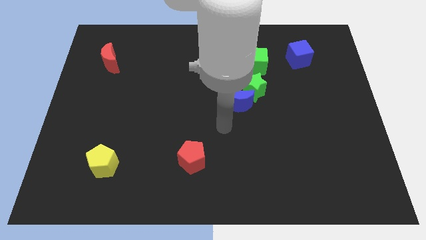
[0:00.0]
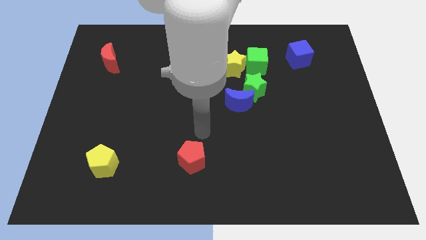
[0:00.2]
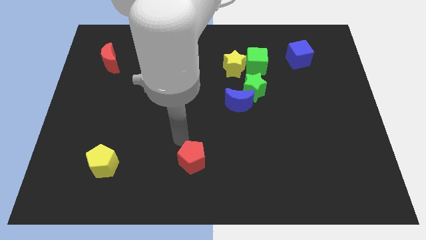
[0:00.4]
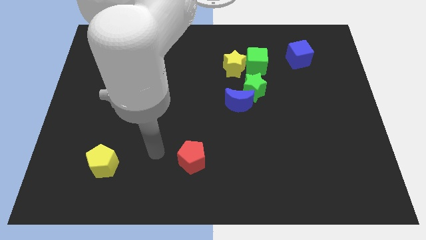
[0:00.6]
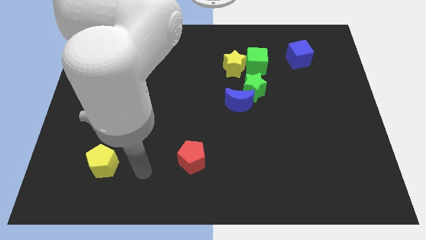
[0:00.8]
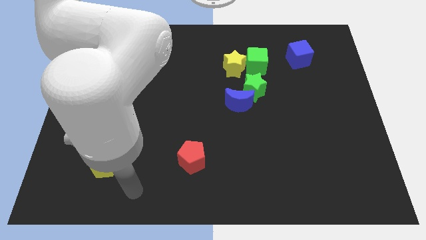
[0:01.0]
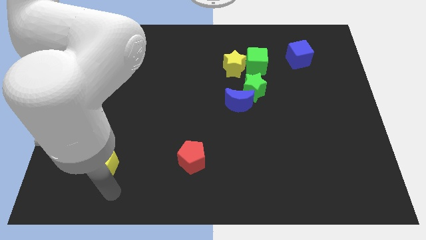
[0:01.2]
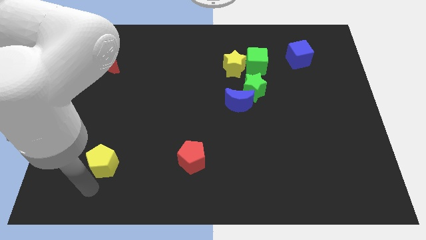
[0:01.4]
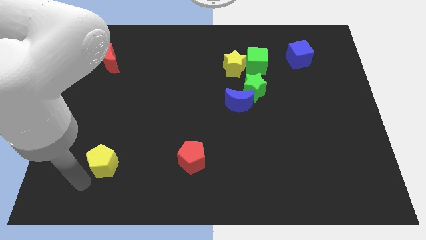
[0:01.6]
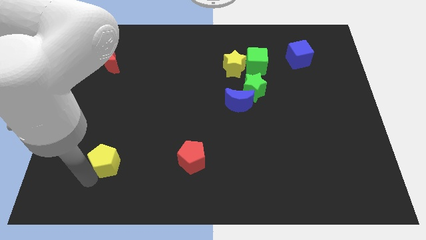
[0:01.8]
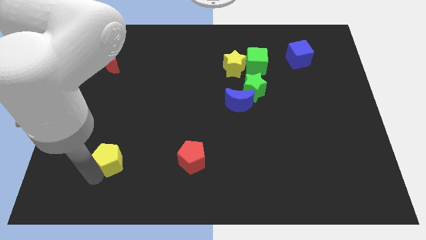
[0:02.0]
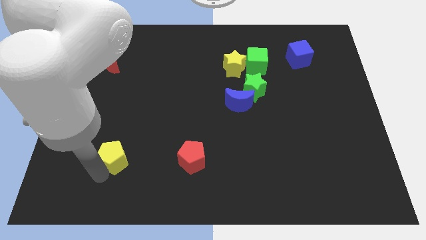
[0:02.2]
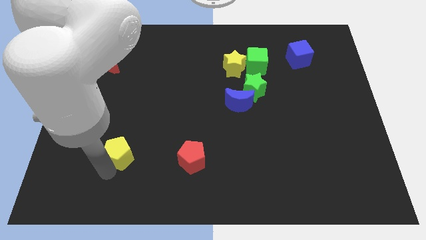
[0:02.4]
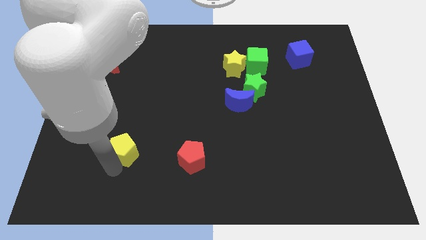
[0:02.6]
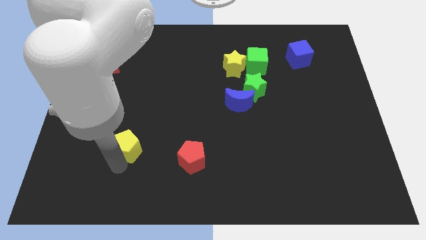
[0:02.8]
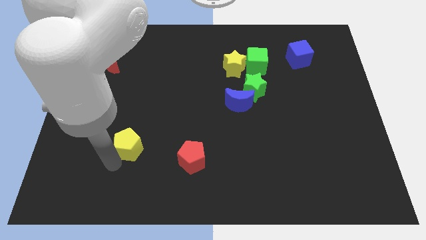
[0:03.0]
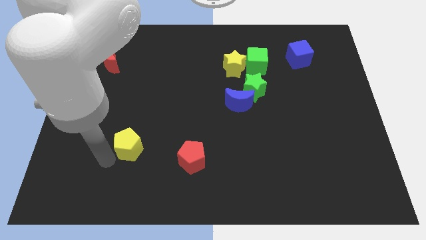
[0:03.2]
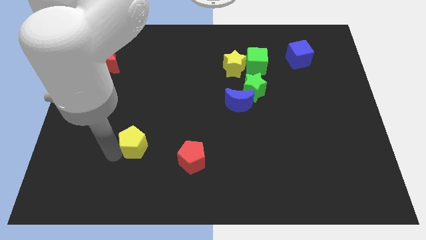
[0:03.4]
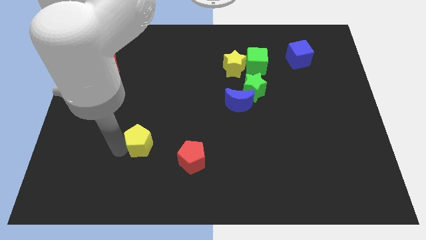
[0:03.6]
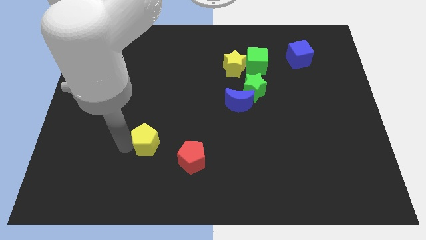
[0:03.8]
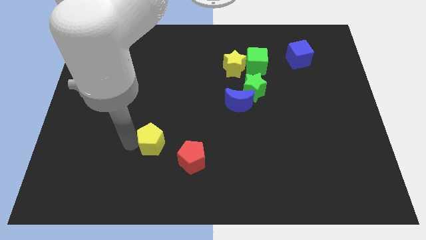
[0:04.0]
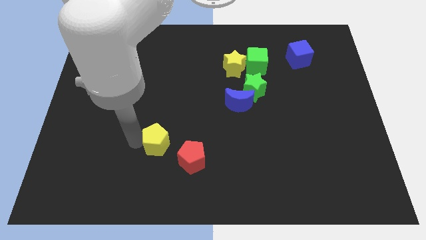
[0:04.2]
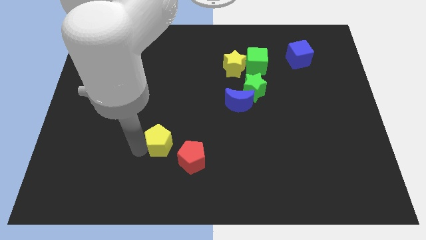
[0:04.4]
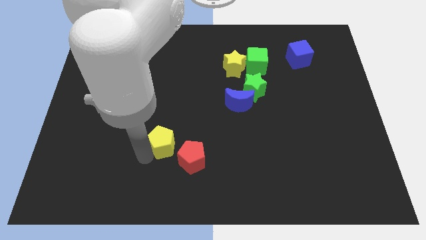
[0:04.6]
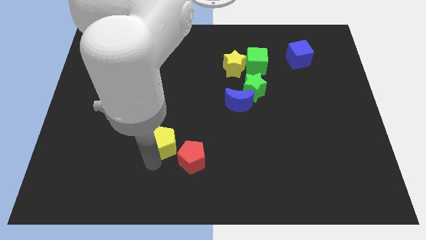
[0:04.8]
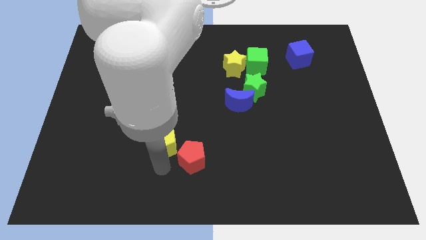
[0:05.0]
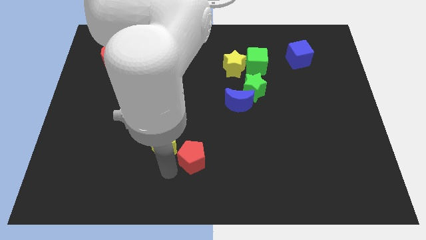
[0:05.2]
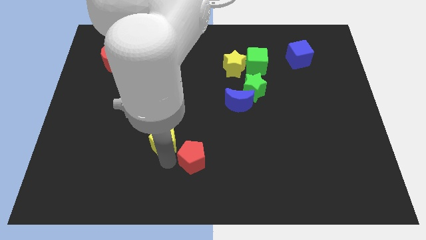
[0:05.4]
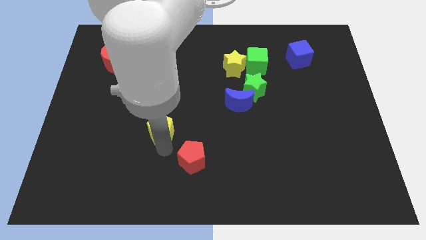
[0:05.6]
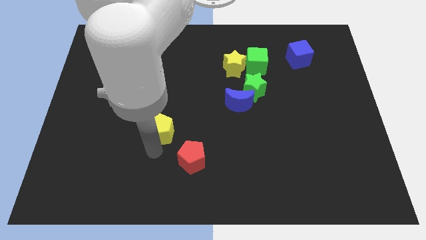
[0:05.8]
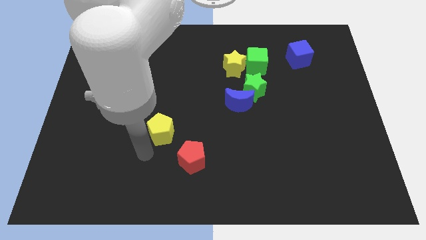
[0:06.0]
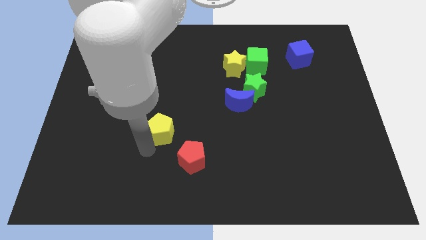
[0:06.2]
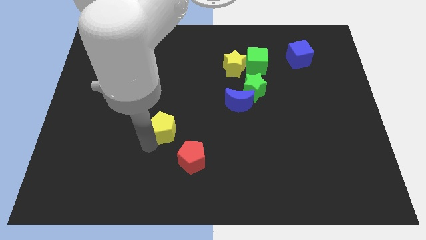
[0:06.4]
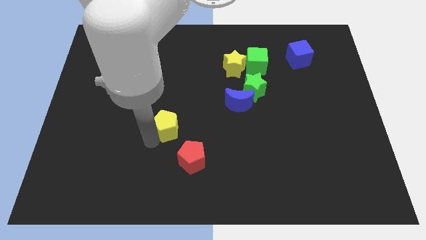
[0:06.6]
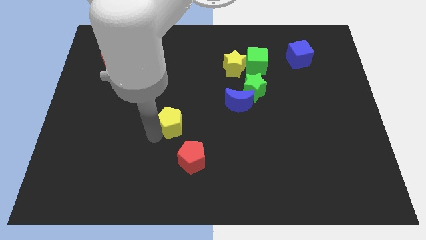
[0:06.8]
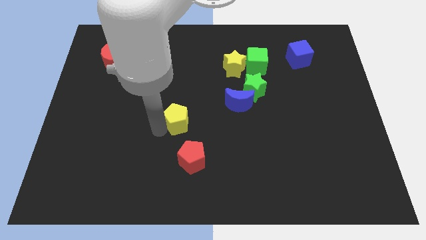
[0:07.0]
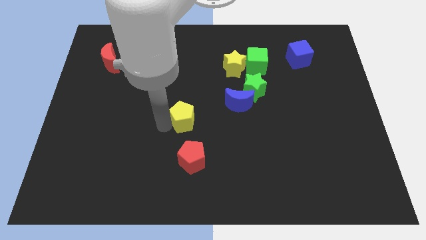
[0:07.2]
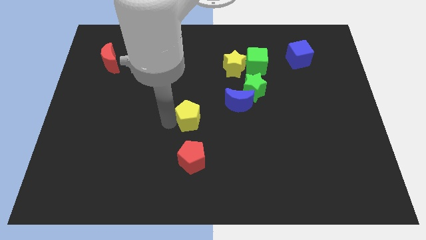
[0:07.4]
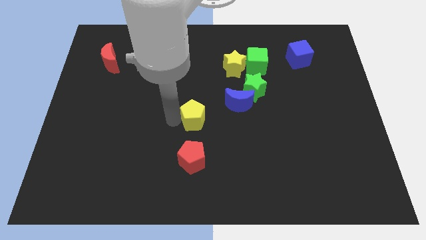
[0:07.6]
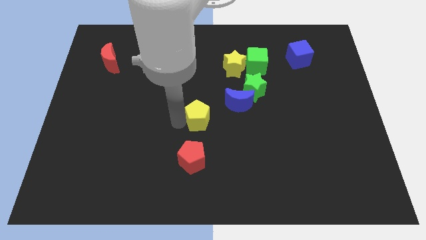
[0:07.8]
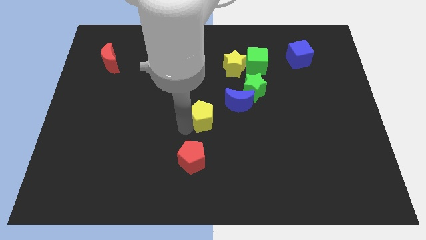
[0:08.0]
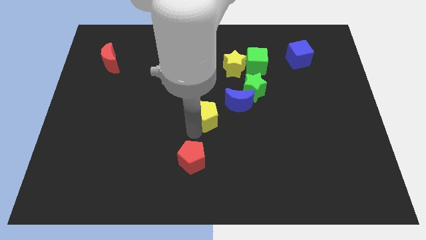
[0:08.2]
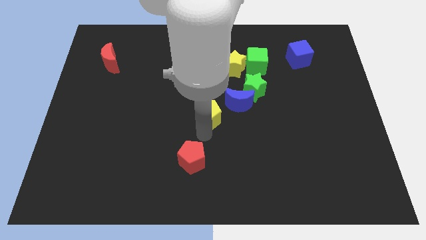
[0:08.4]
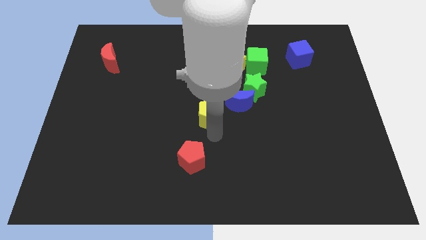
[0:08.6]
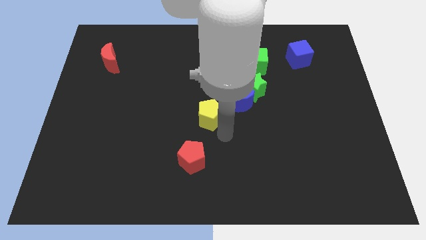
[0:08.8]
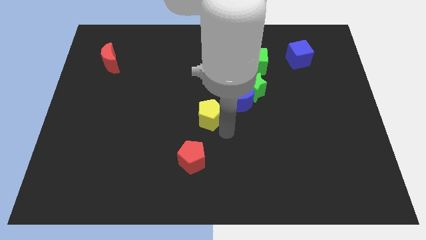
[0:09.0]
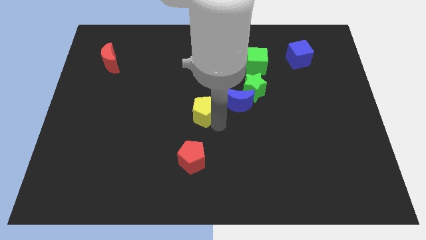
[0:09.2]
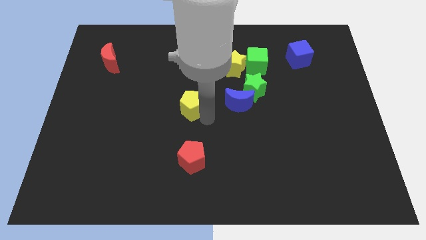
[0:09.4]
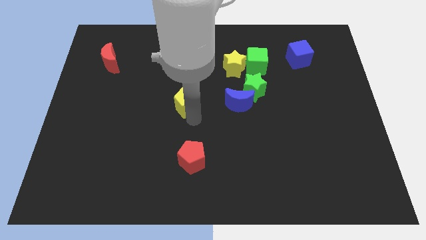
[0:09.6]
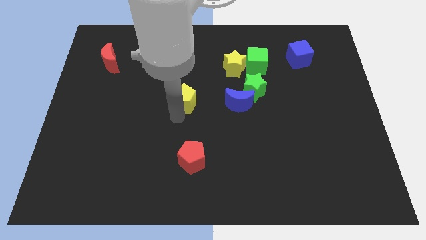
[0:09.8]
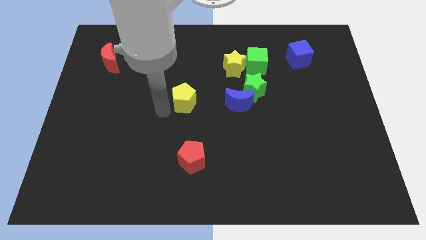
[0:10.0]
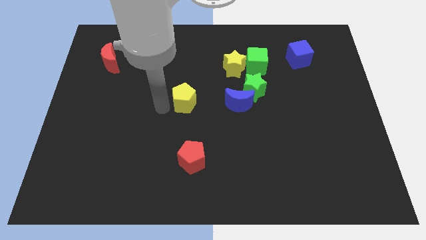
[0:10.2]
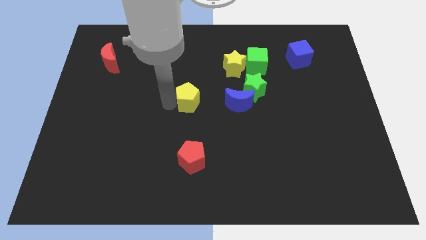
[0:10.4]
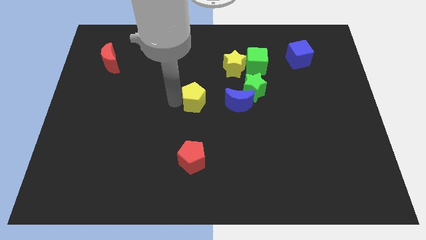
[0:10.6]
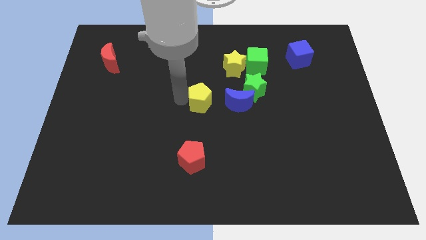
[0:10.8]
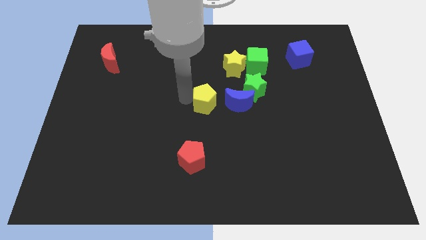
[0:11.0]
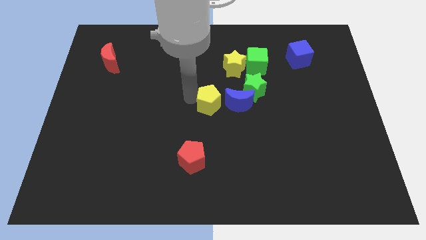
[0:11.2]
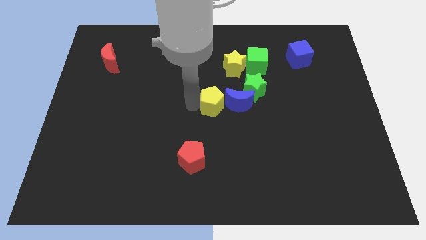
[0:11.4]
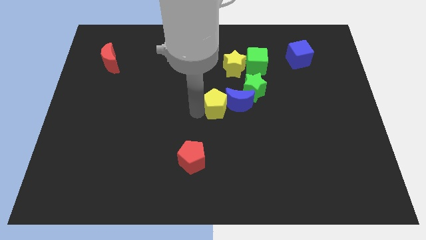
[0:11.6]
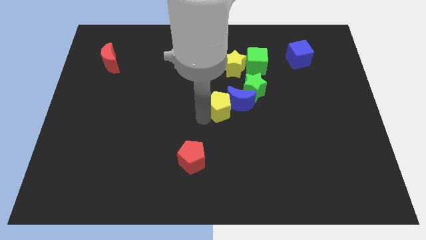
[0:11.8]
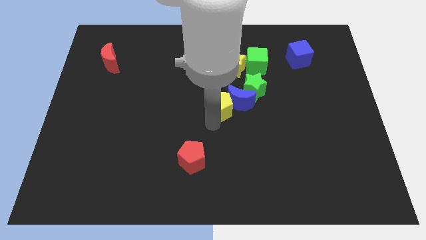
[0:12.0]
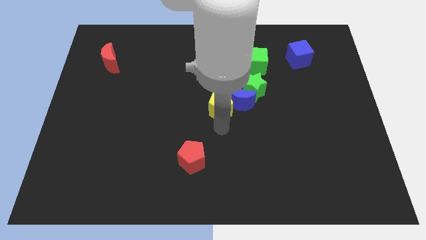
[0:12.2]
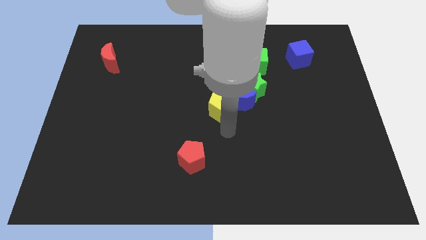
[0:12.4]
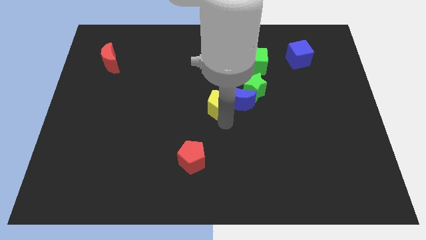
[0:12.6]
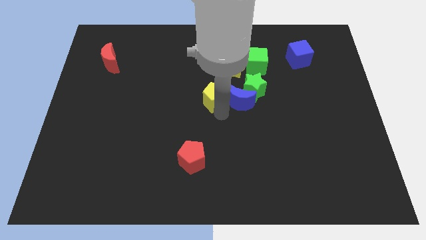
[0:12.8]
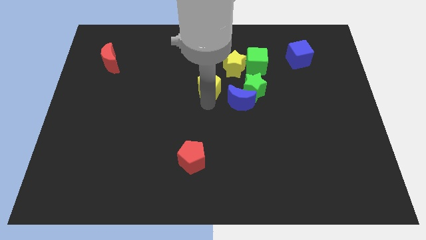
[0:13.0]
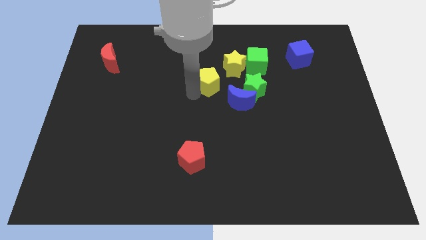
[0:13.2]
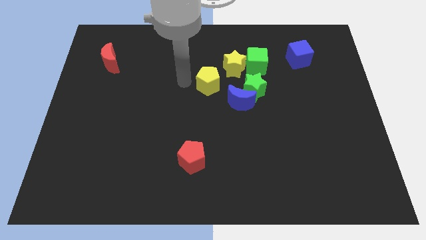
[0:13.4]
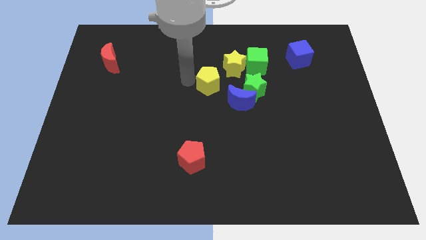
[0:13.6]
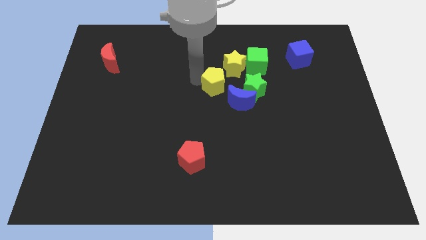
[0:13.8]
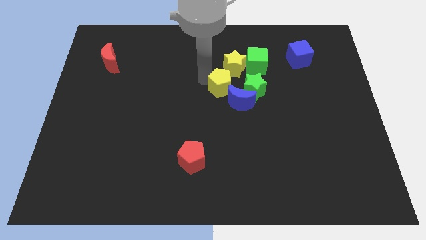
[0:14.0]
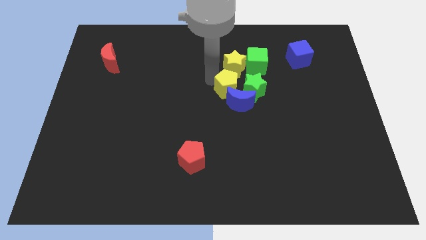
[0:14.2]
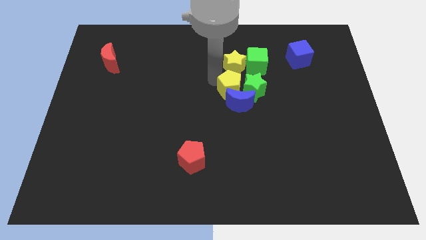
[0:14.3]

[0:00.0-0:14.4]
slide the yellow pentagon to the green star
